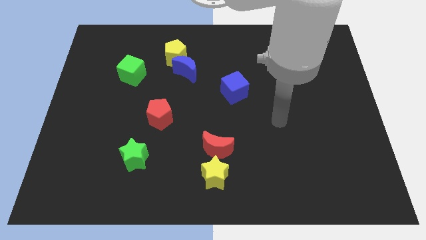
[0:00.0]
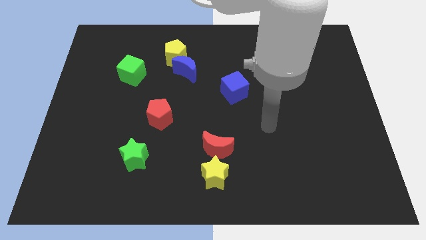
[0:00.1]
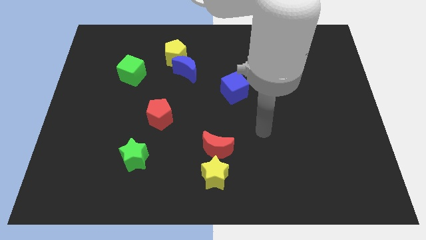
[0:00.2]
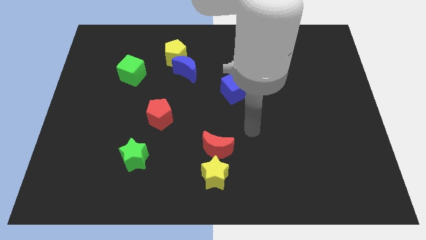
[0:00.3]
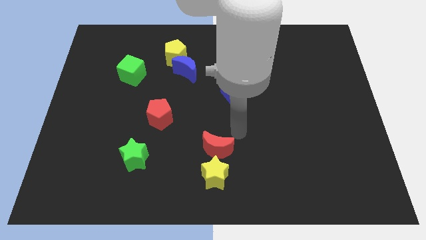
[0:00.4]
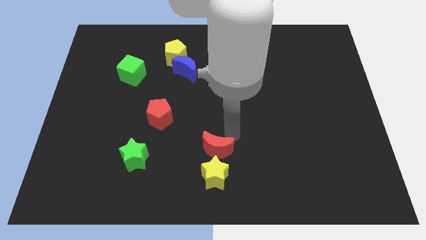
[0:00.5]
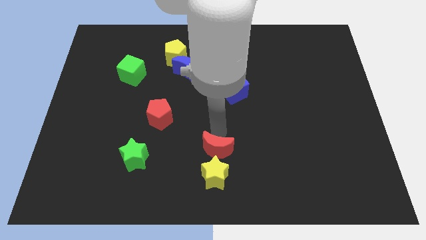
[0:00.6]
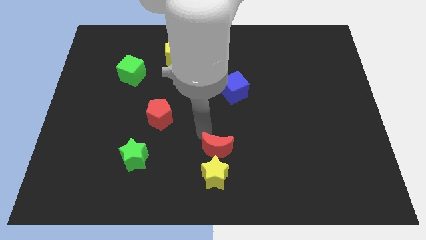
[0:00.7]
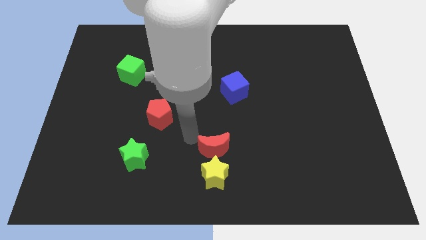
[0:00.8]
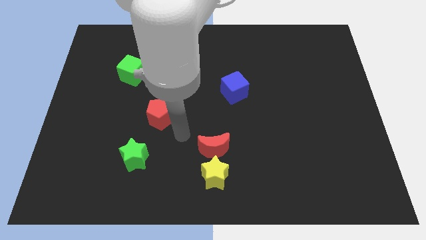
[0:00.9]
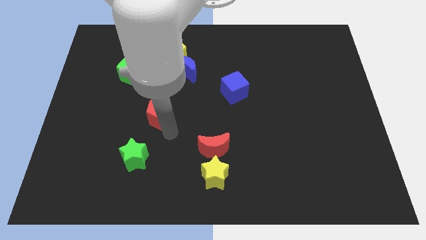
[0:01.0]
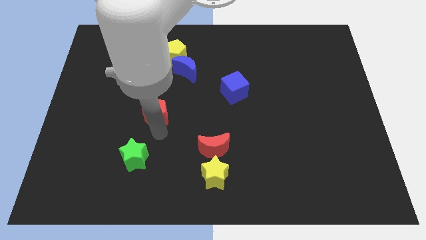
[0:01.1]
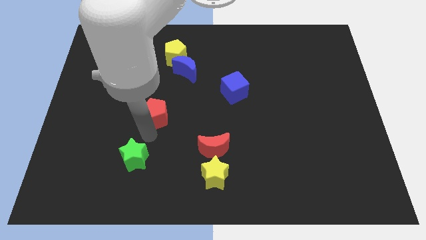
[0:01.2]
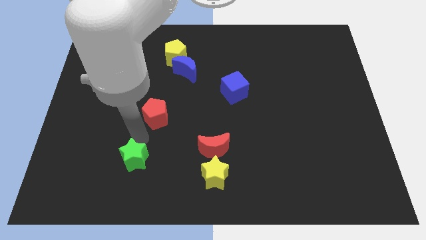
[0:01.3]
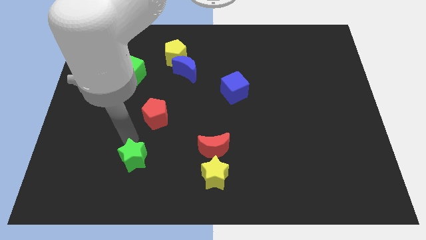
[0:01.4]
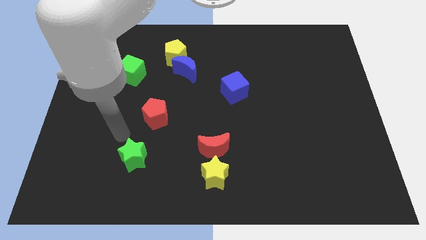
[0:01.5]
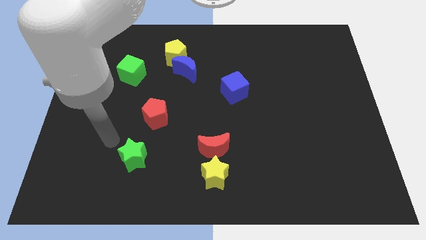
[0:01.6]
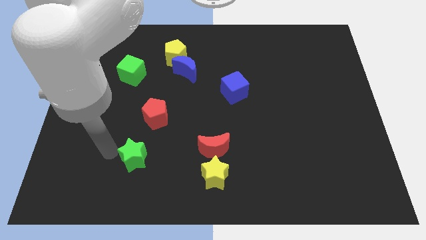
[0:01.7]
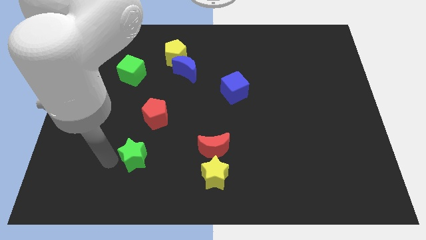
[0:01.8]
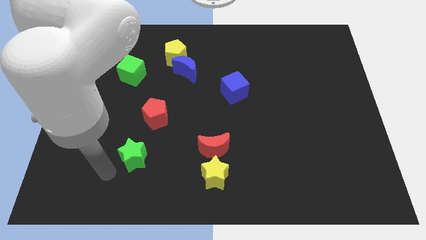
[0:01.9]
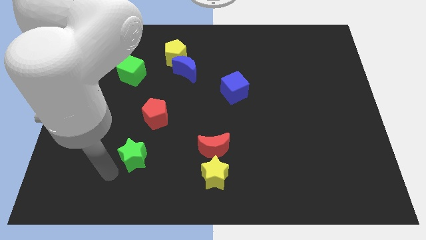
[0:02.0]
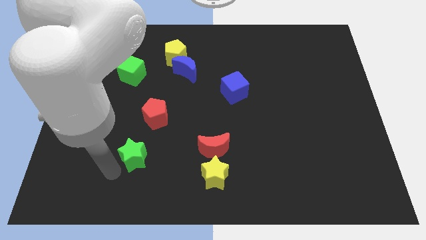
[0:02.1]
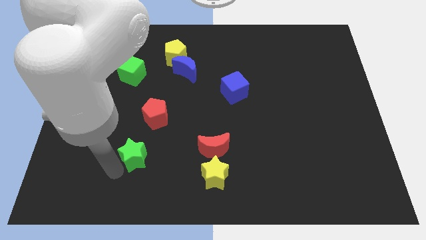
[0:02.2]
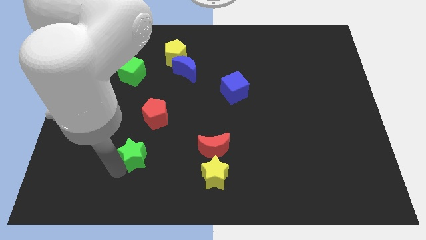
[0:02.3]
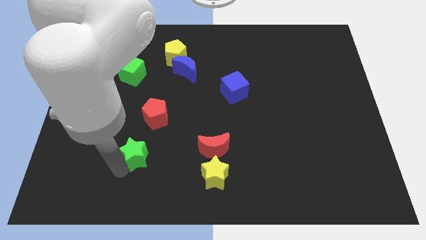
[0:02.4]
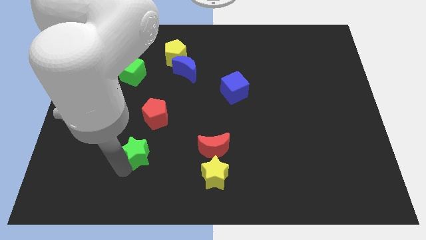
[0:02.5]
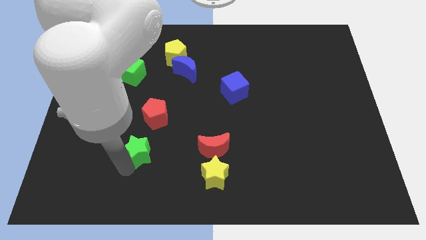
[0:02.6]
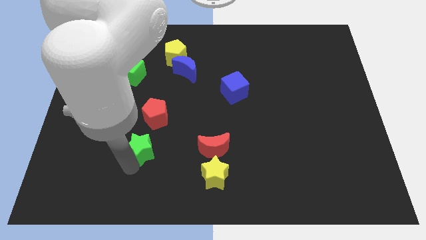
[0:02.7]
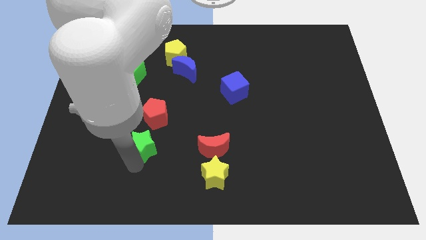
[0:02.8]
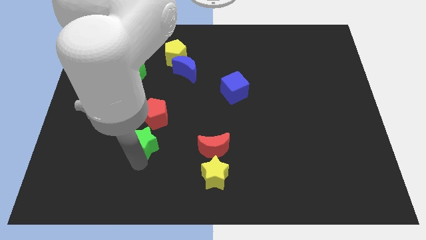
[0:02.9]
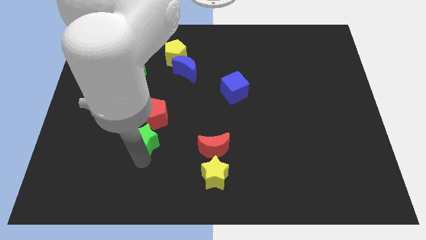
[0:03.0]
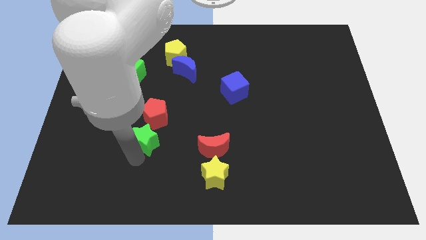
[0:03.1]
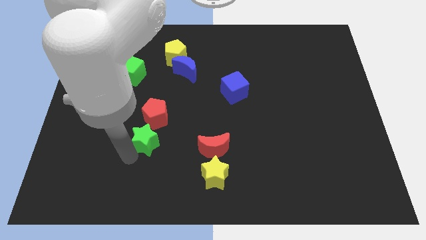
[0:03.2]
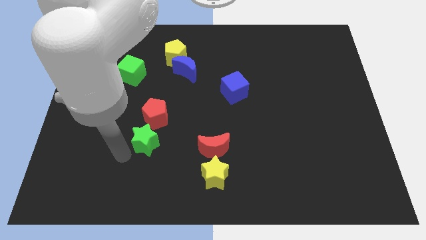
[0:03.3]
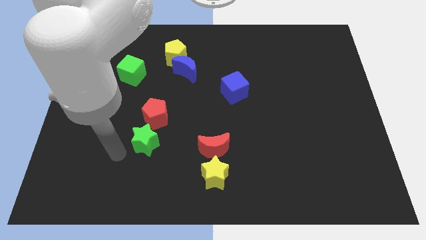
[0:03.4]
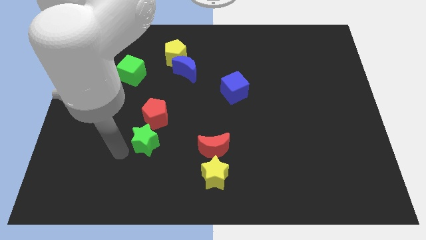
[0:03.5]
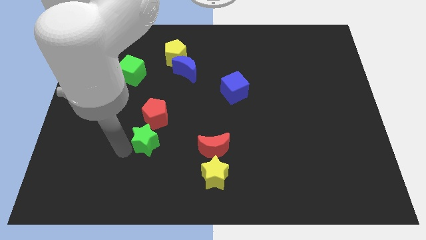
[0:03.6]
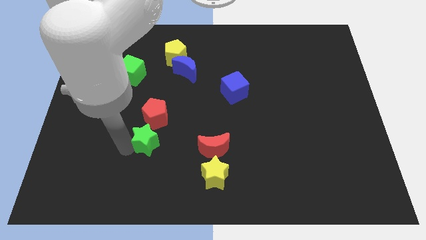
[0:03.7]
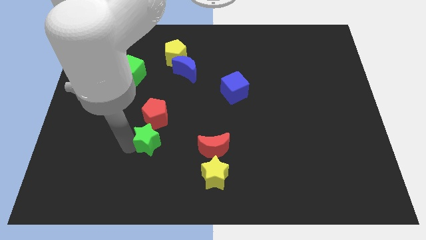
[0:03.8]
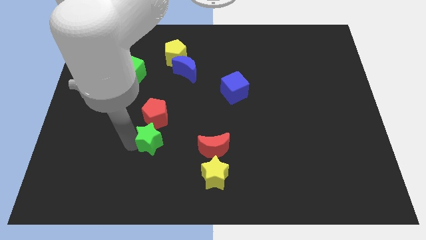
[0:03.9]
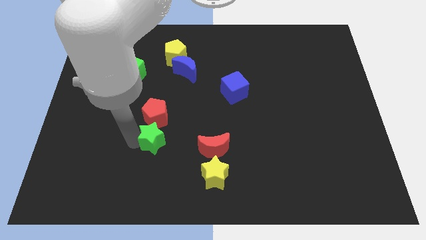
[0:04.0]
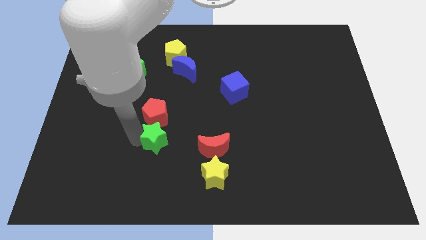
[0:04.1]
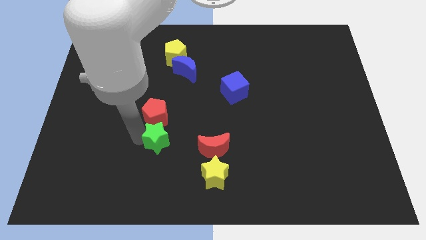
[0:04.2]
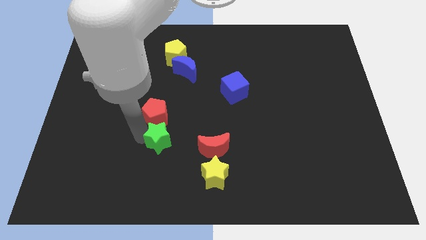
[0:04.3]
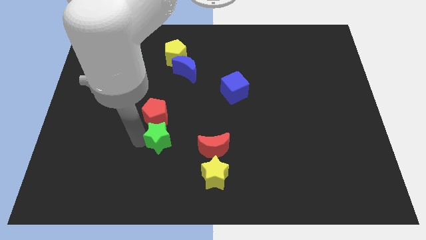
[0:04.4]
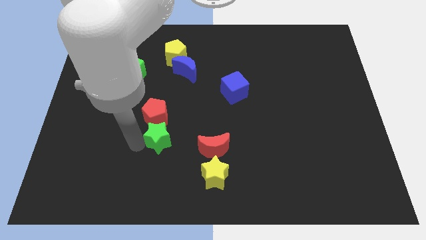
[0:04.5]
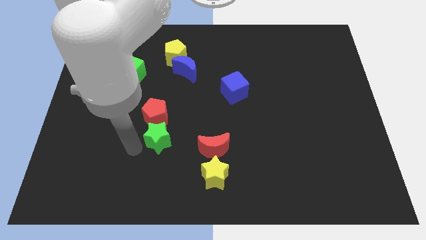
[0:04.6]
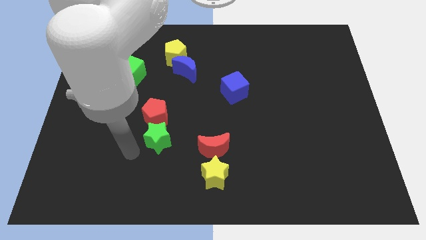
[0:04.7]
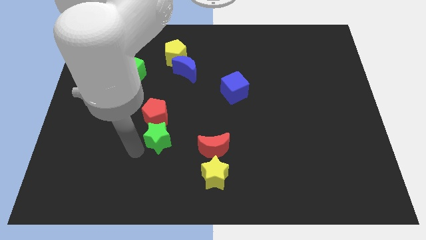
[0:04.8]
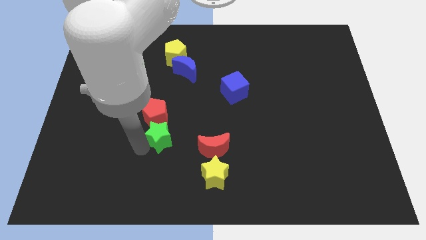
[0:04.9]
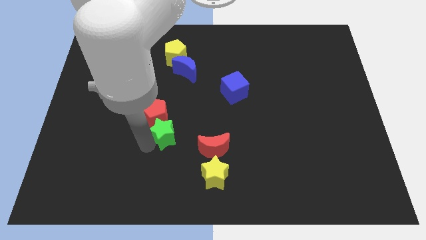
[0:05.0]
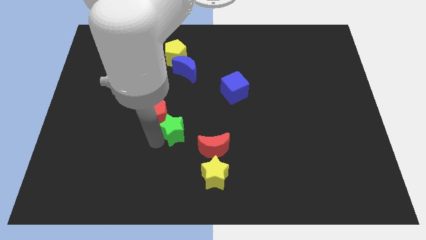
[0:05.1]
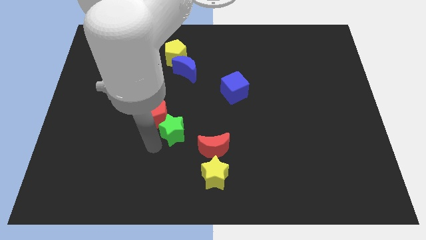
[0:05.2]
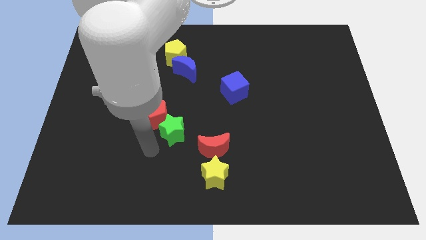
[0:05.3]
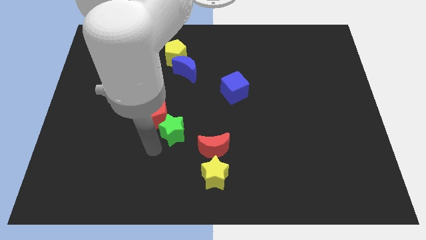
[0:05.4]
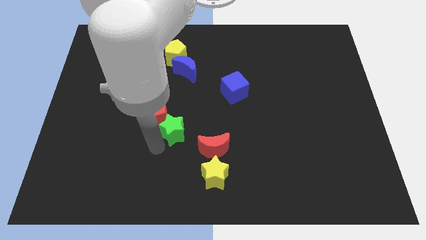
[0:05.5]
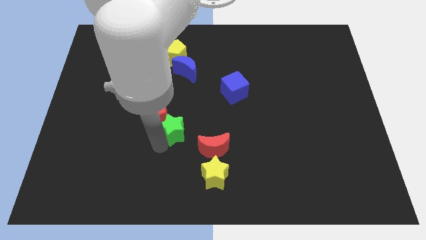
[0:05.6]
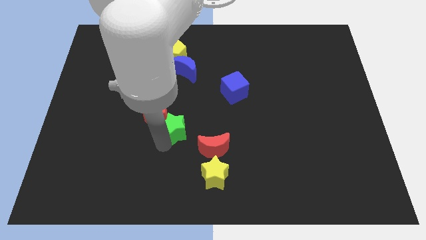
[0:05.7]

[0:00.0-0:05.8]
push the green star to the middle of the board
